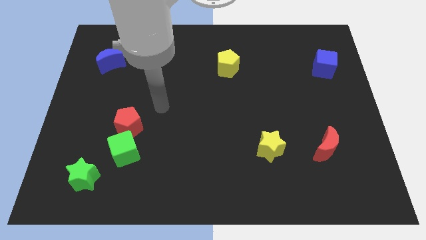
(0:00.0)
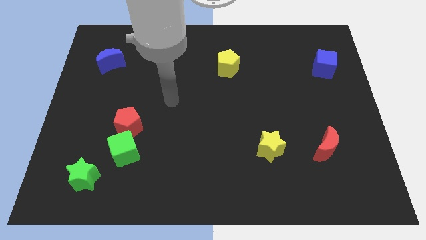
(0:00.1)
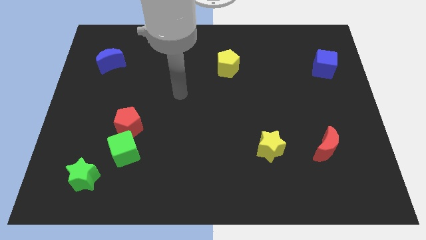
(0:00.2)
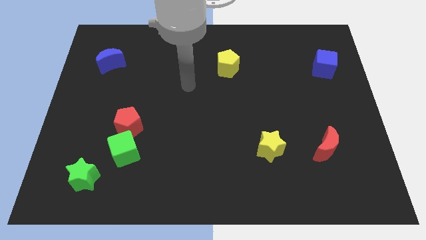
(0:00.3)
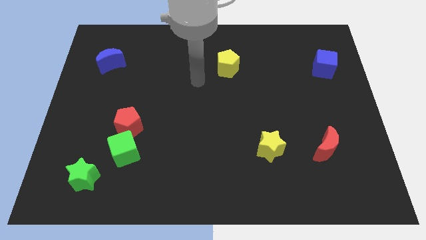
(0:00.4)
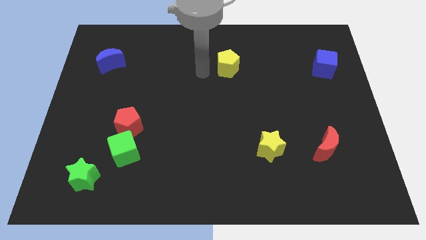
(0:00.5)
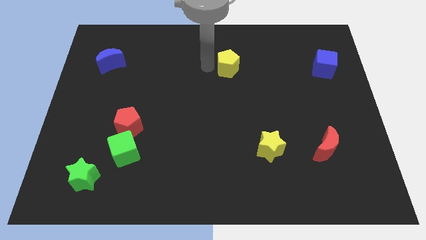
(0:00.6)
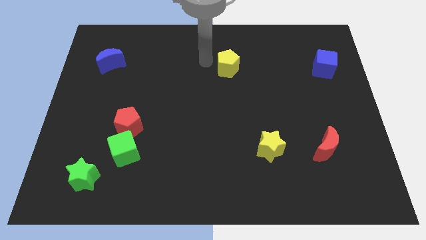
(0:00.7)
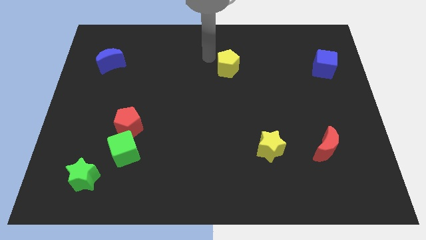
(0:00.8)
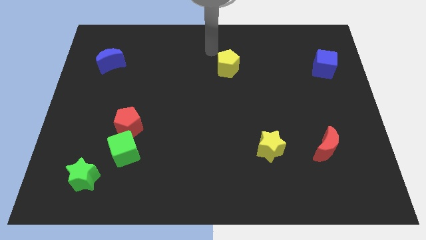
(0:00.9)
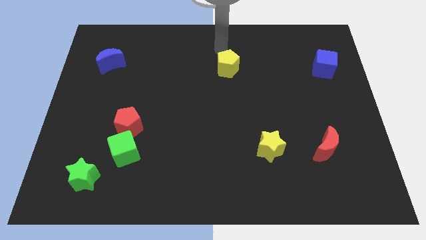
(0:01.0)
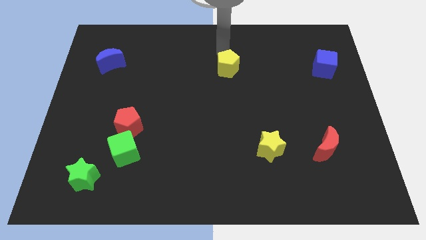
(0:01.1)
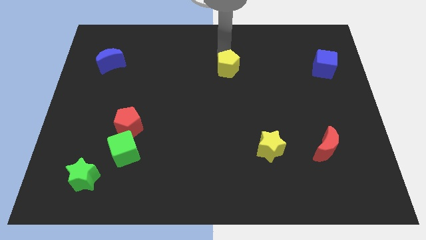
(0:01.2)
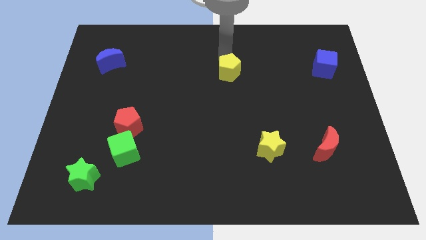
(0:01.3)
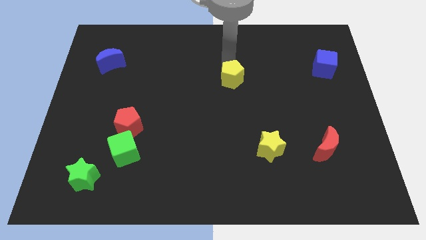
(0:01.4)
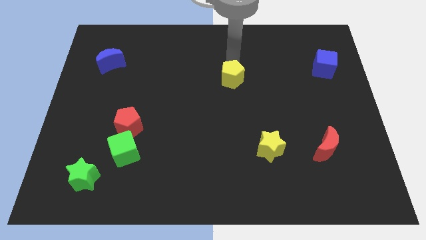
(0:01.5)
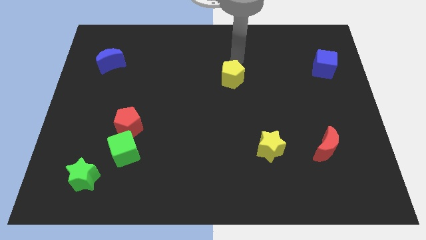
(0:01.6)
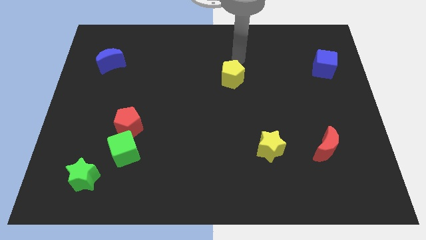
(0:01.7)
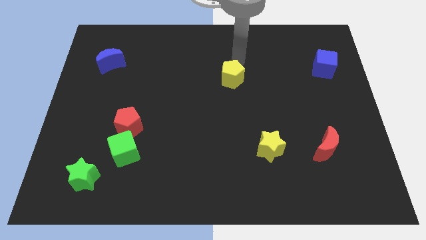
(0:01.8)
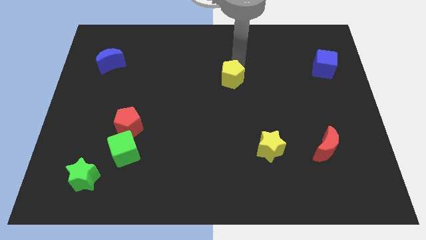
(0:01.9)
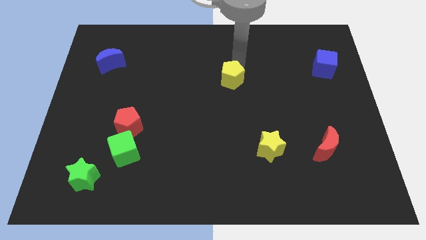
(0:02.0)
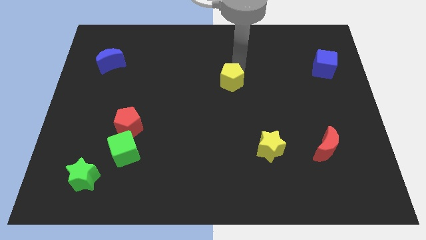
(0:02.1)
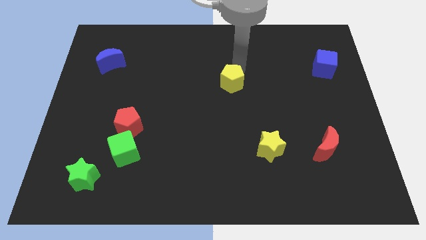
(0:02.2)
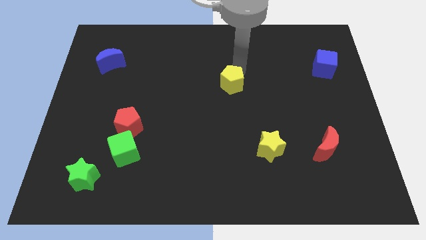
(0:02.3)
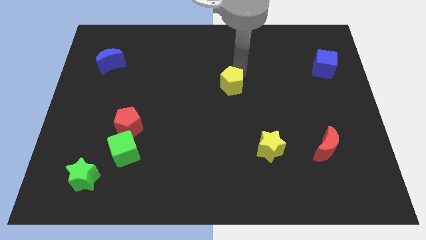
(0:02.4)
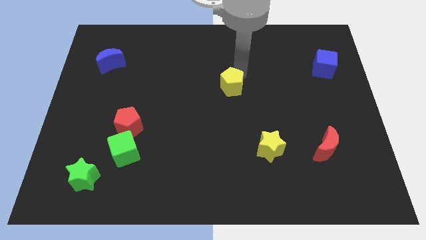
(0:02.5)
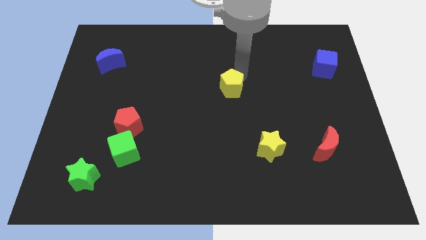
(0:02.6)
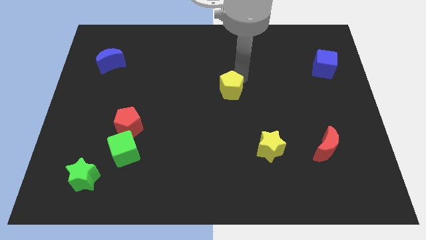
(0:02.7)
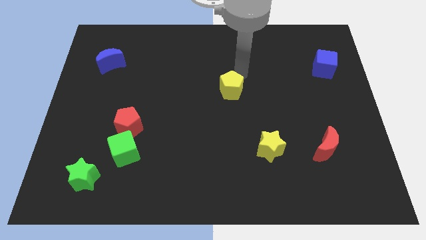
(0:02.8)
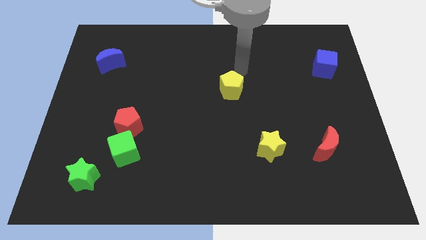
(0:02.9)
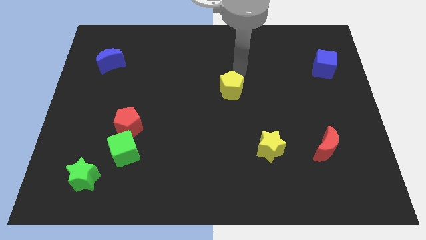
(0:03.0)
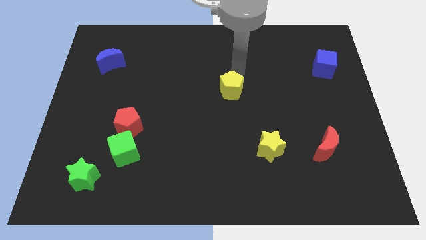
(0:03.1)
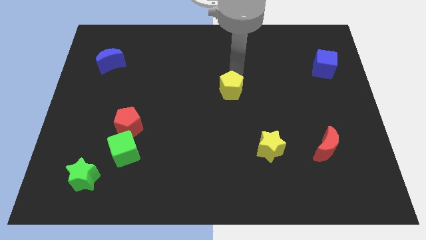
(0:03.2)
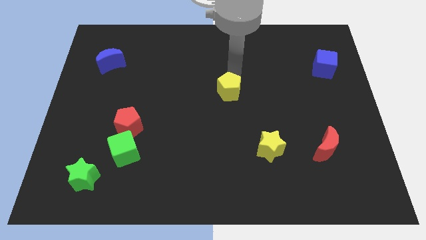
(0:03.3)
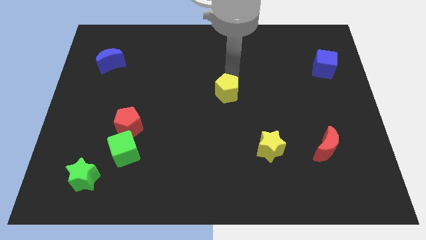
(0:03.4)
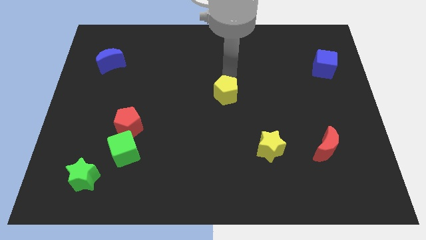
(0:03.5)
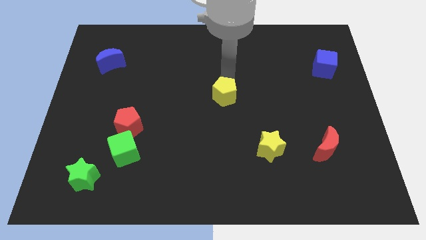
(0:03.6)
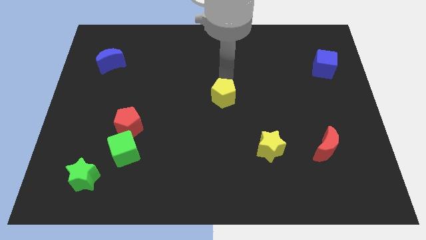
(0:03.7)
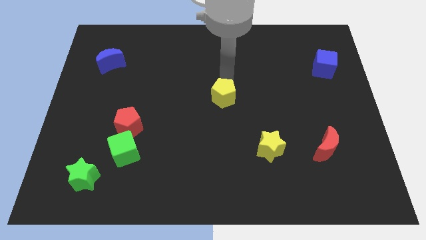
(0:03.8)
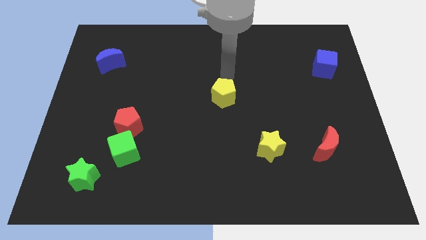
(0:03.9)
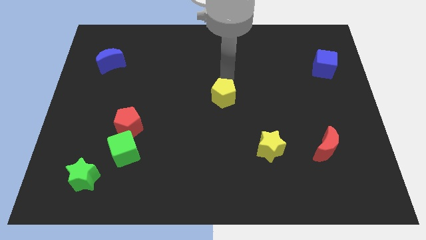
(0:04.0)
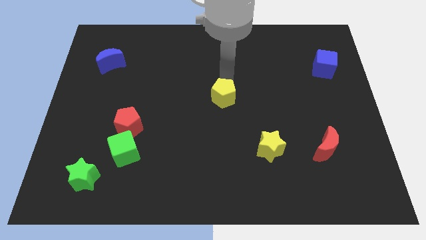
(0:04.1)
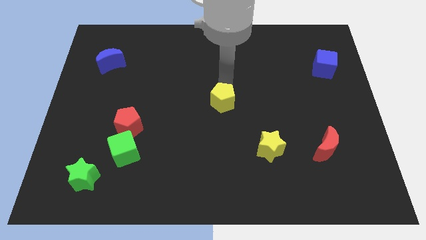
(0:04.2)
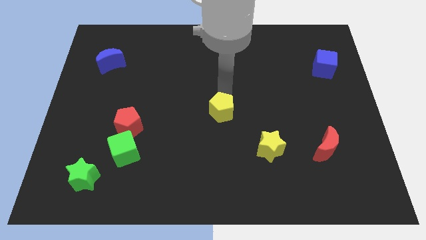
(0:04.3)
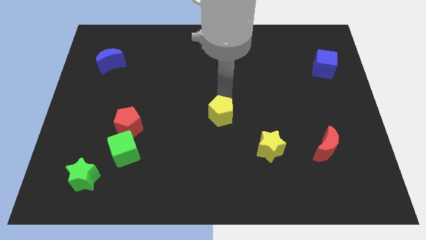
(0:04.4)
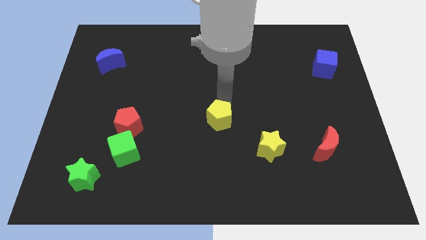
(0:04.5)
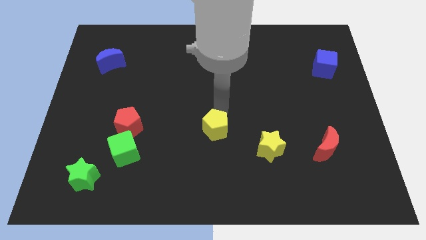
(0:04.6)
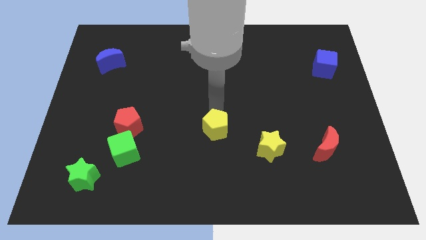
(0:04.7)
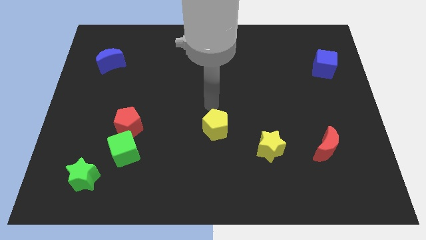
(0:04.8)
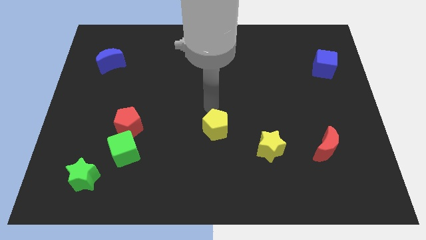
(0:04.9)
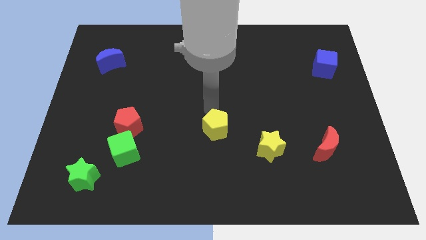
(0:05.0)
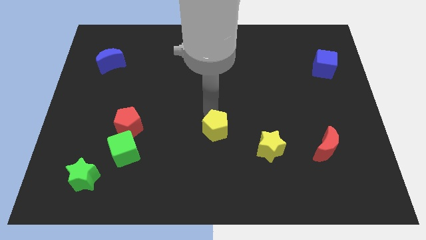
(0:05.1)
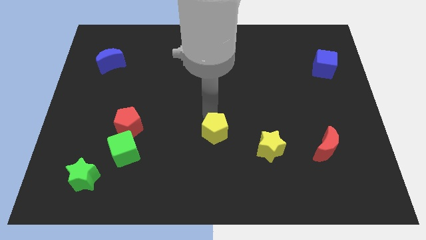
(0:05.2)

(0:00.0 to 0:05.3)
put the yellow pentagon to the left of the yellow star

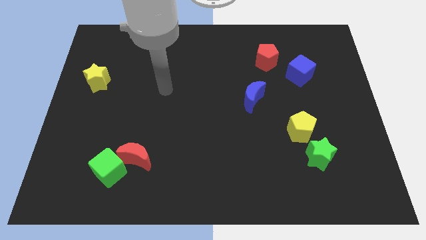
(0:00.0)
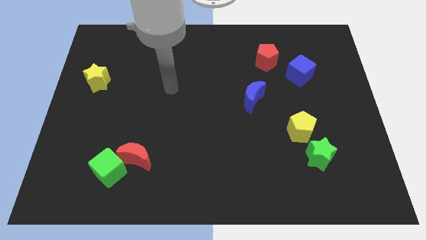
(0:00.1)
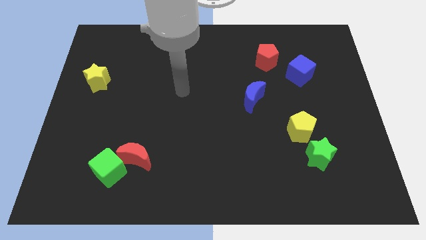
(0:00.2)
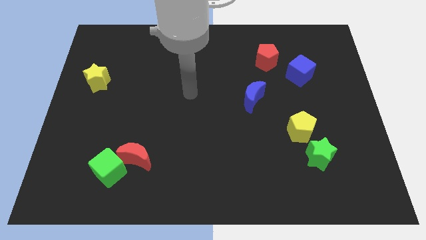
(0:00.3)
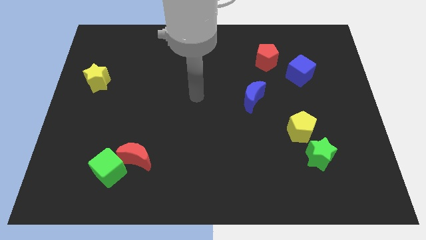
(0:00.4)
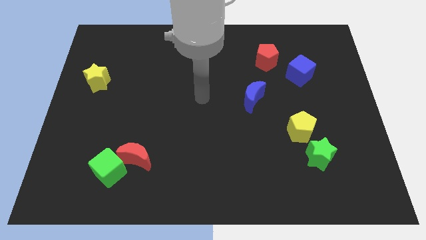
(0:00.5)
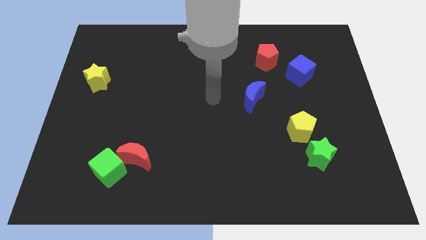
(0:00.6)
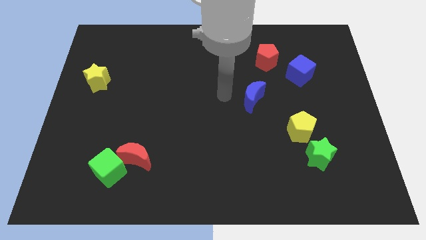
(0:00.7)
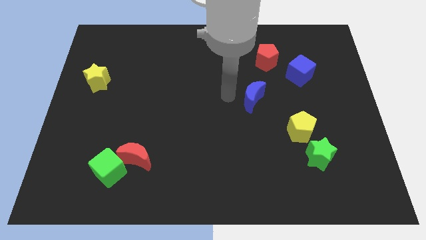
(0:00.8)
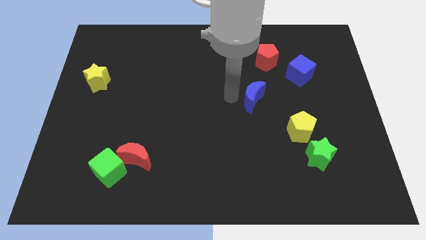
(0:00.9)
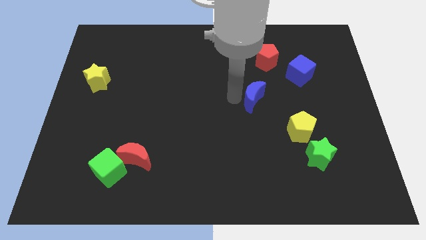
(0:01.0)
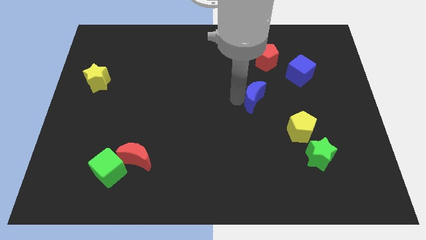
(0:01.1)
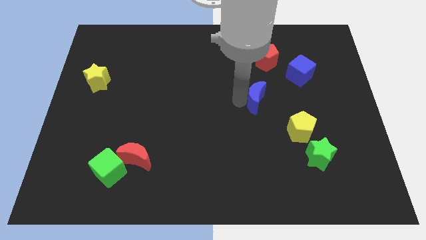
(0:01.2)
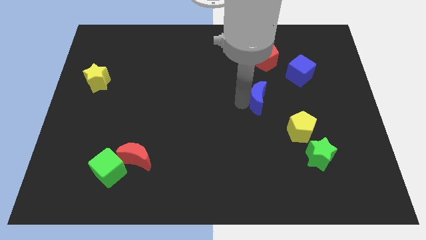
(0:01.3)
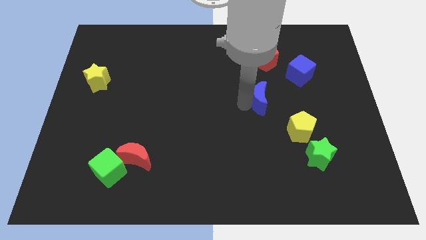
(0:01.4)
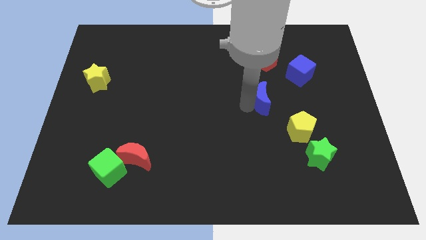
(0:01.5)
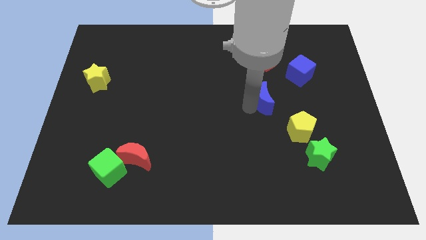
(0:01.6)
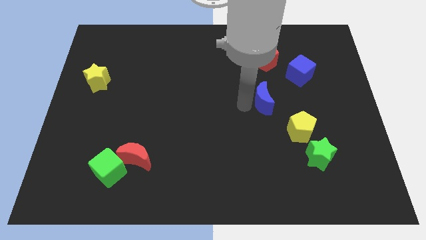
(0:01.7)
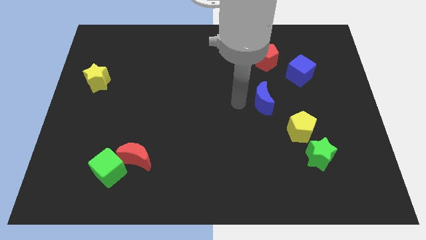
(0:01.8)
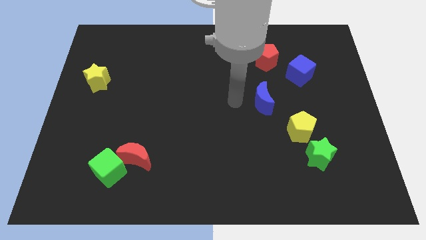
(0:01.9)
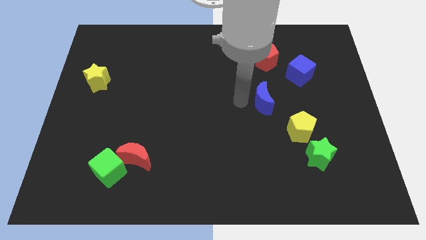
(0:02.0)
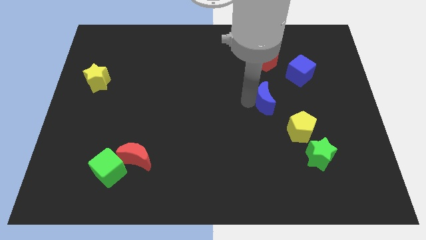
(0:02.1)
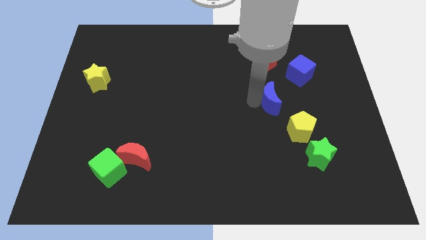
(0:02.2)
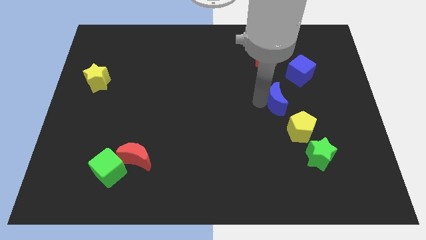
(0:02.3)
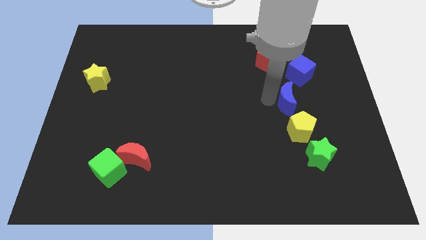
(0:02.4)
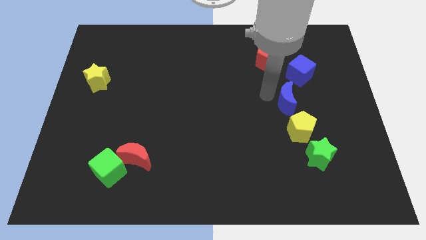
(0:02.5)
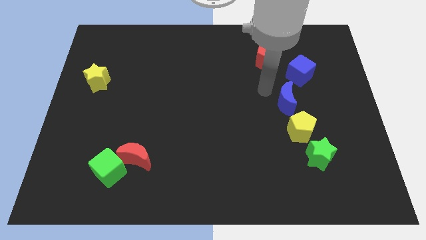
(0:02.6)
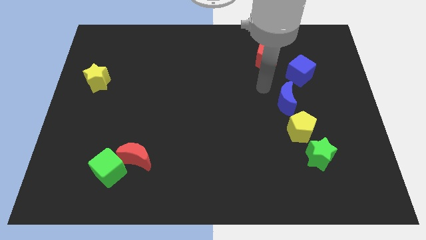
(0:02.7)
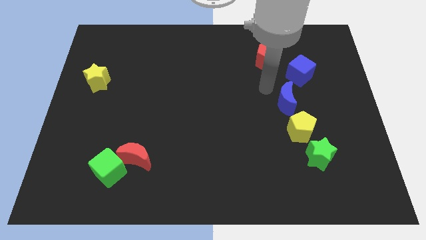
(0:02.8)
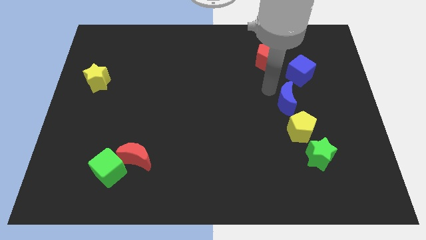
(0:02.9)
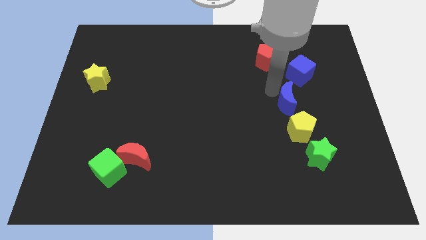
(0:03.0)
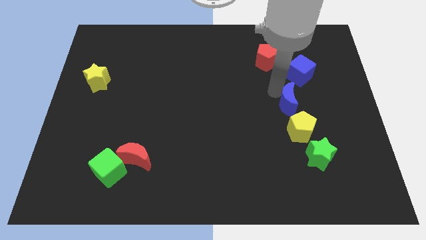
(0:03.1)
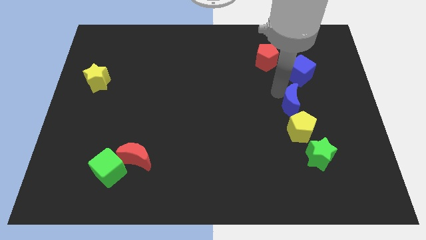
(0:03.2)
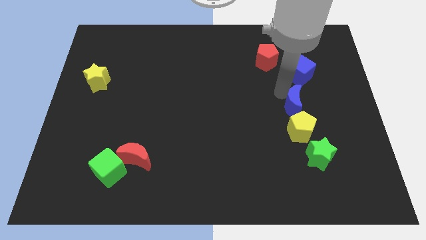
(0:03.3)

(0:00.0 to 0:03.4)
move the blue moon above the green star
